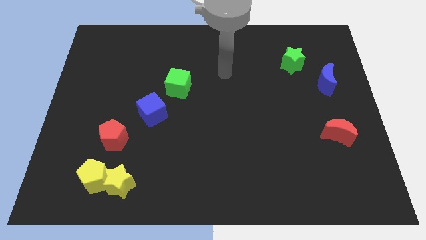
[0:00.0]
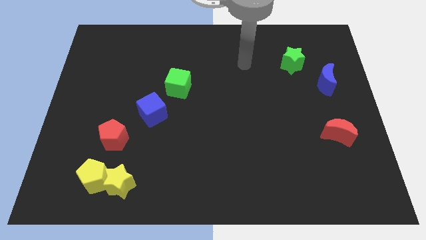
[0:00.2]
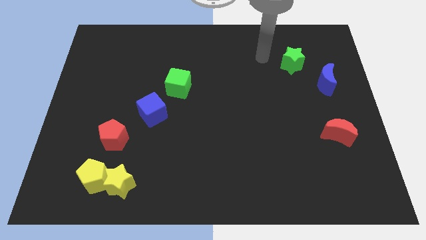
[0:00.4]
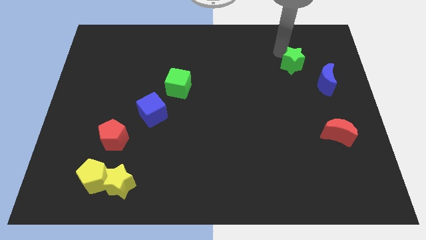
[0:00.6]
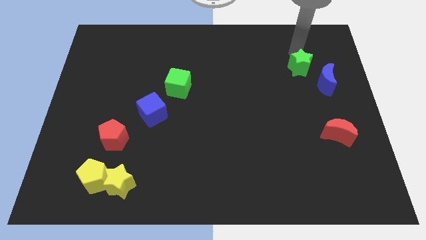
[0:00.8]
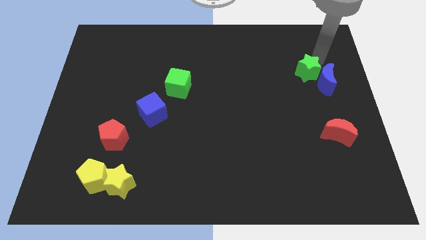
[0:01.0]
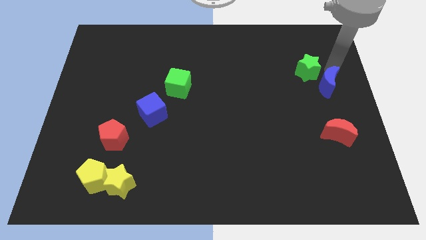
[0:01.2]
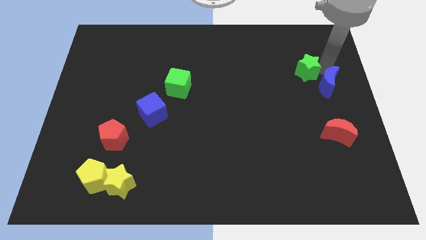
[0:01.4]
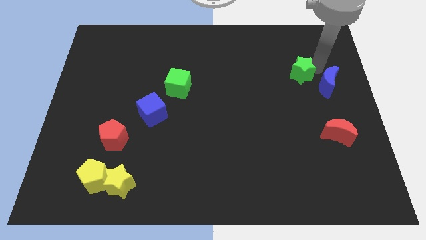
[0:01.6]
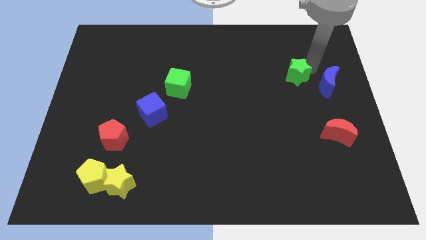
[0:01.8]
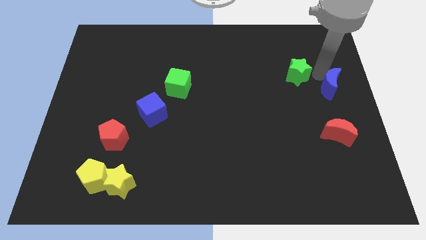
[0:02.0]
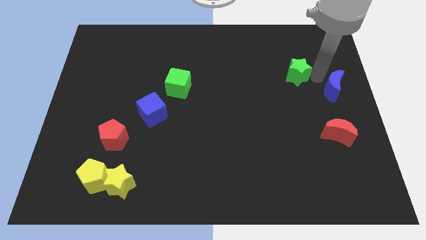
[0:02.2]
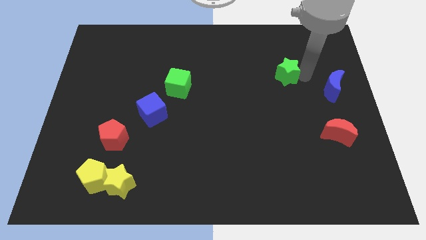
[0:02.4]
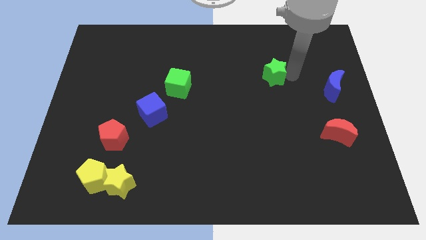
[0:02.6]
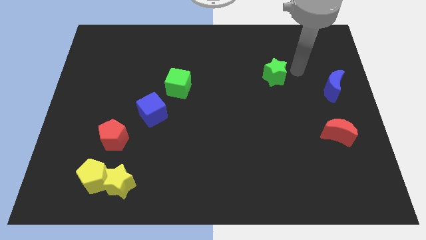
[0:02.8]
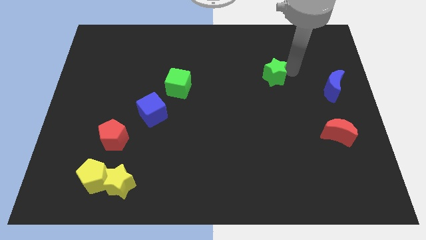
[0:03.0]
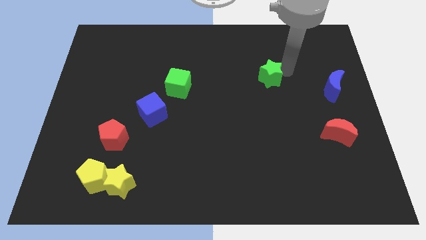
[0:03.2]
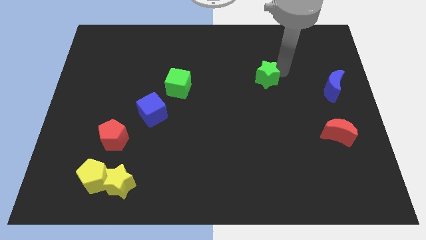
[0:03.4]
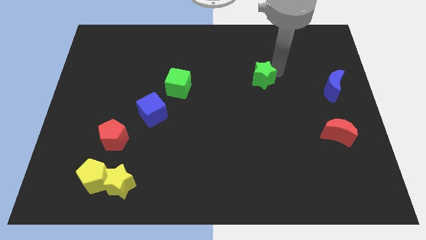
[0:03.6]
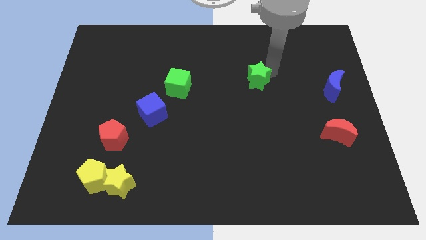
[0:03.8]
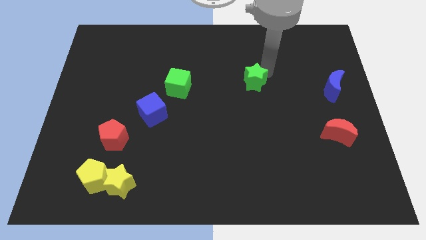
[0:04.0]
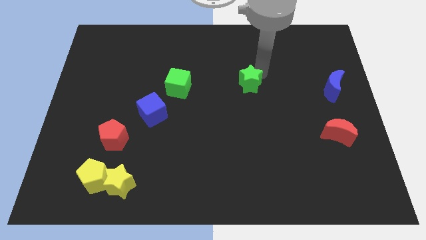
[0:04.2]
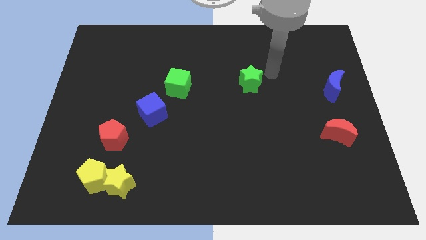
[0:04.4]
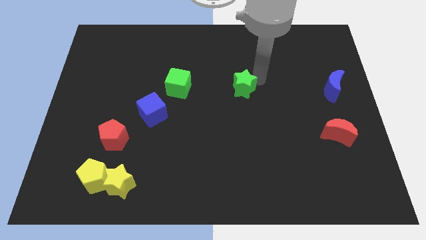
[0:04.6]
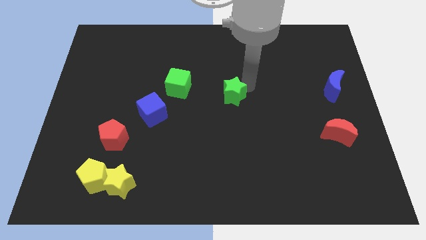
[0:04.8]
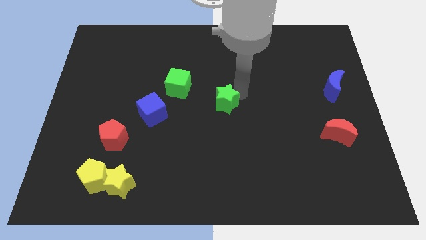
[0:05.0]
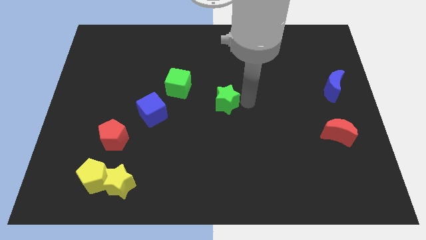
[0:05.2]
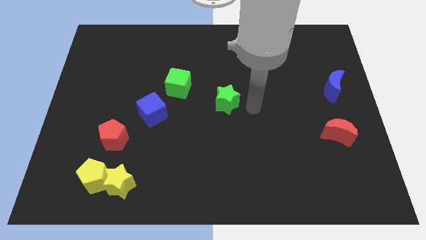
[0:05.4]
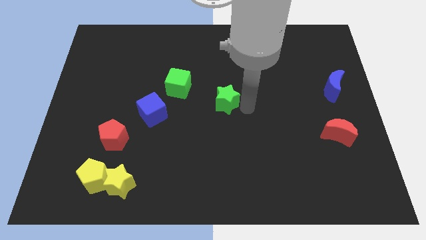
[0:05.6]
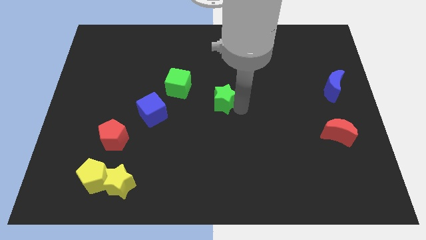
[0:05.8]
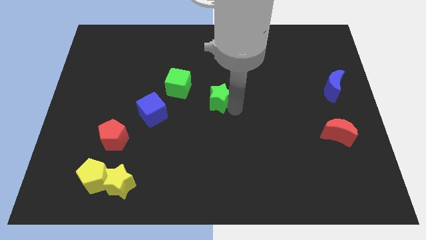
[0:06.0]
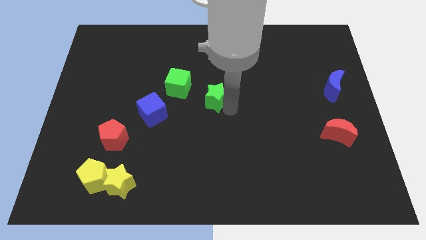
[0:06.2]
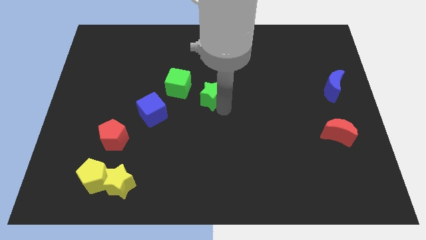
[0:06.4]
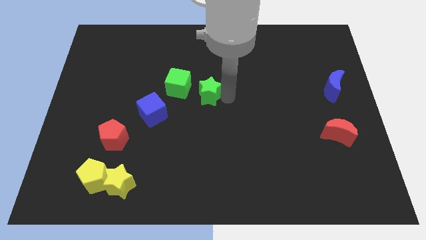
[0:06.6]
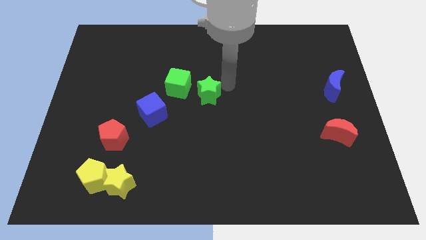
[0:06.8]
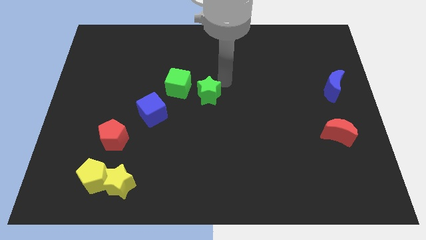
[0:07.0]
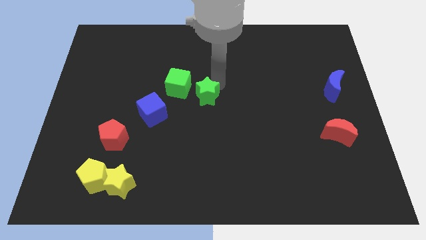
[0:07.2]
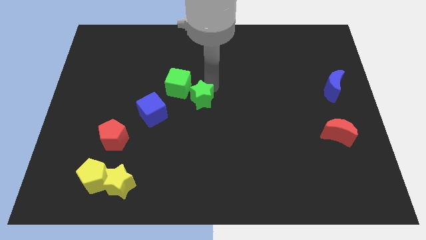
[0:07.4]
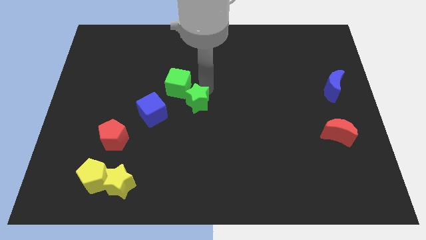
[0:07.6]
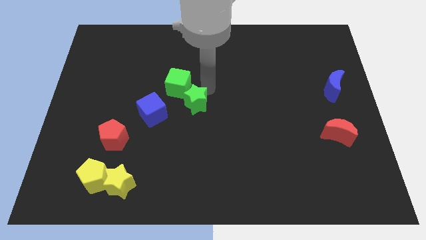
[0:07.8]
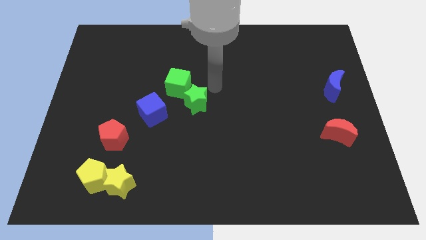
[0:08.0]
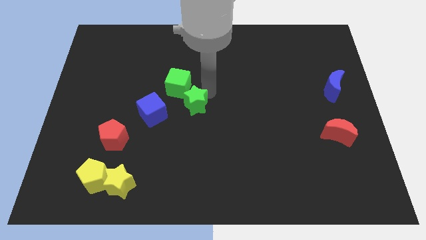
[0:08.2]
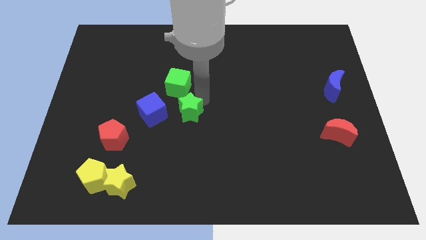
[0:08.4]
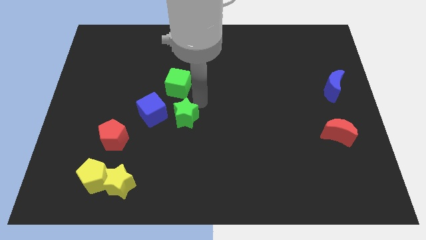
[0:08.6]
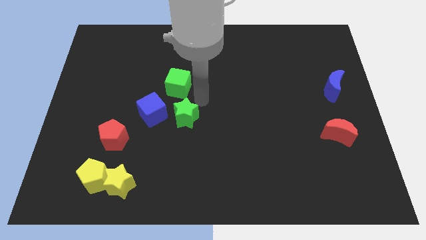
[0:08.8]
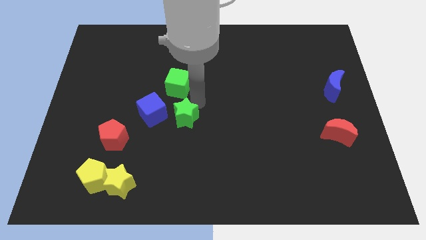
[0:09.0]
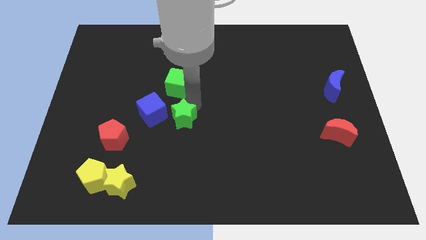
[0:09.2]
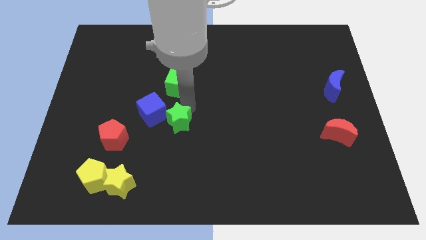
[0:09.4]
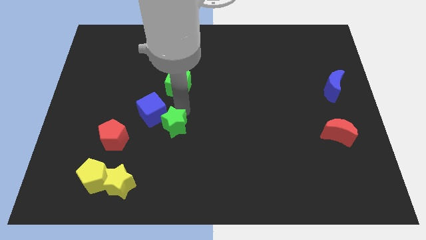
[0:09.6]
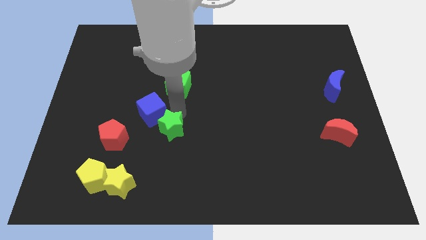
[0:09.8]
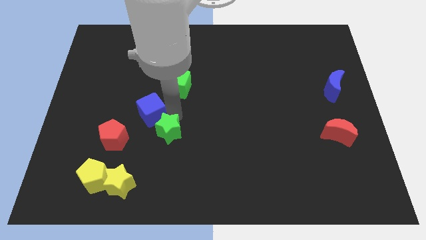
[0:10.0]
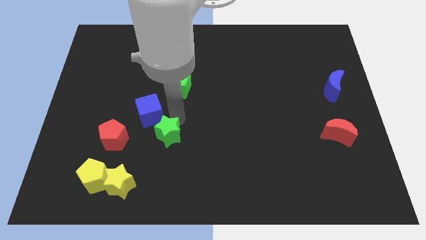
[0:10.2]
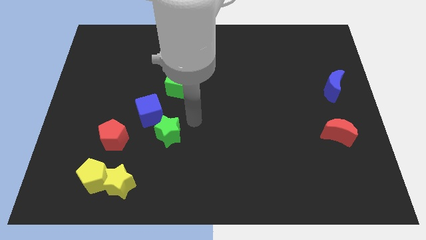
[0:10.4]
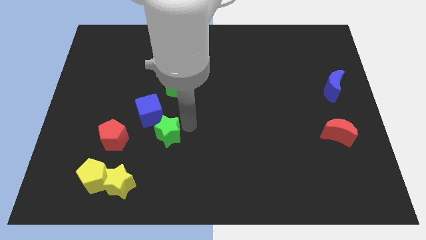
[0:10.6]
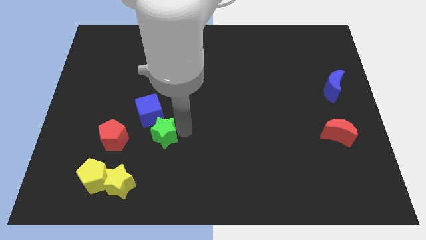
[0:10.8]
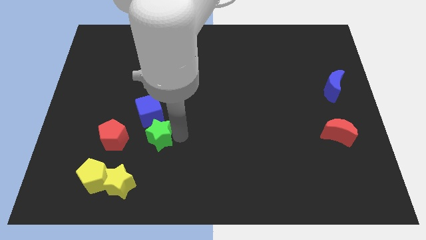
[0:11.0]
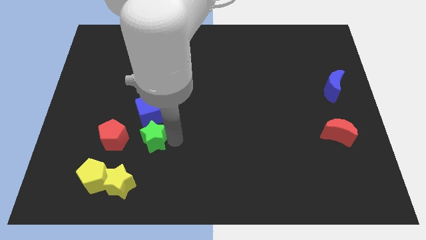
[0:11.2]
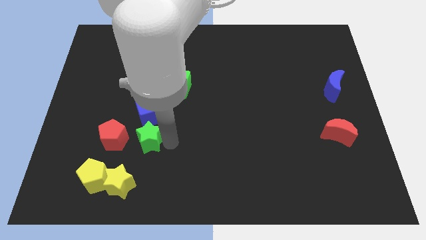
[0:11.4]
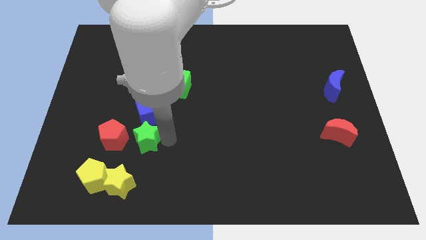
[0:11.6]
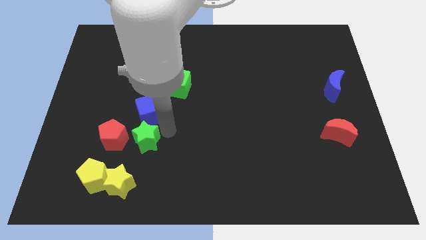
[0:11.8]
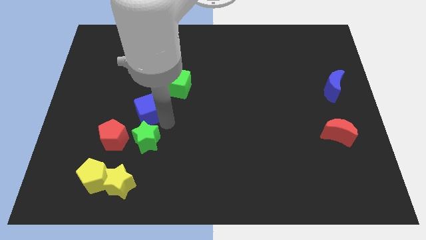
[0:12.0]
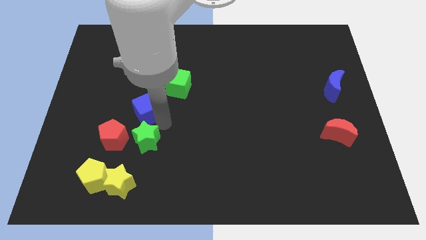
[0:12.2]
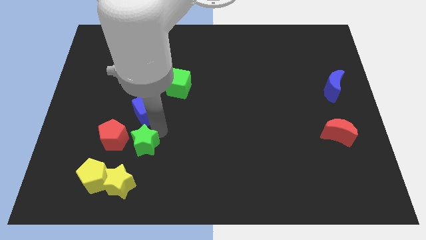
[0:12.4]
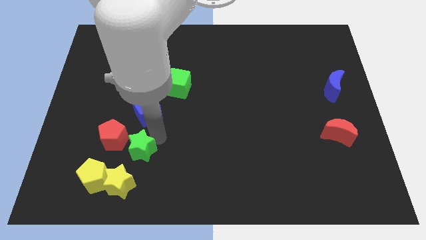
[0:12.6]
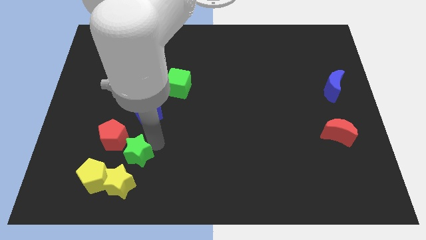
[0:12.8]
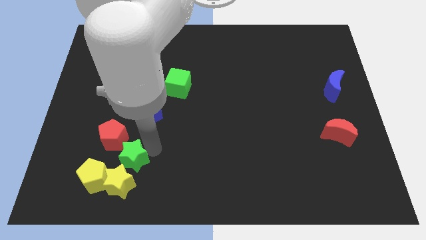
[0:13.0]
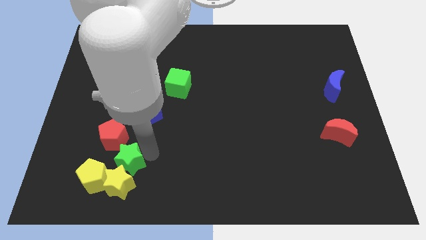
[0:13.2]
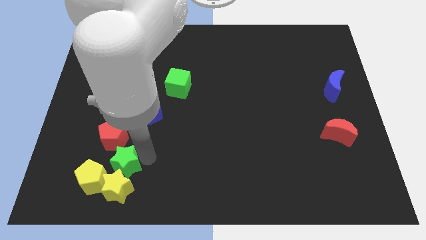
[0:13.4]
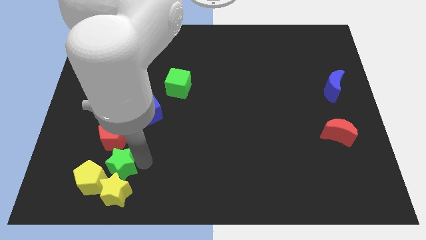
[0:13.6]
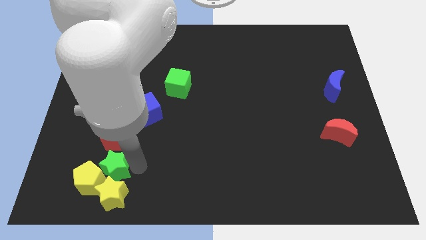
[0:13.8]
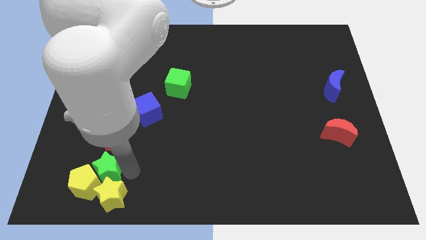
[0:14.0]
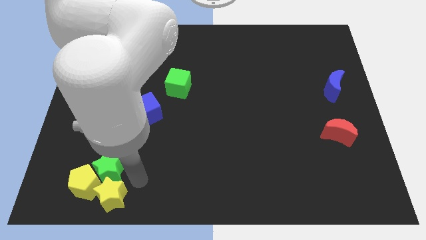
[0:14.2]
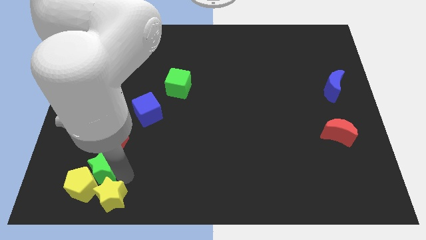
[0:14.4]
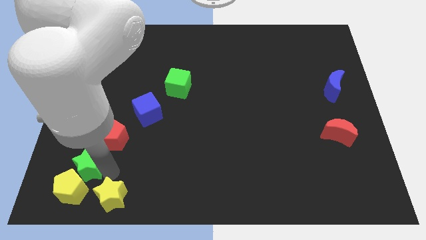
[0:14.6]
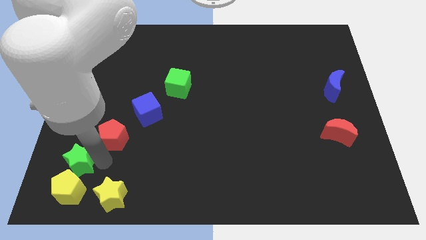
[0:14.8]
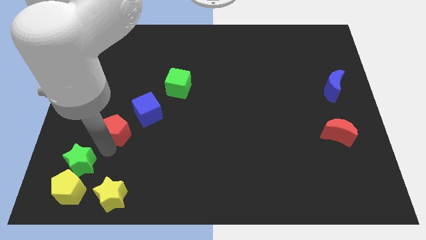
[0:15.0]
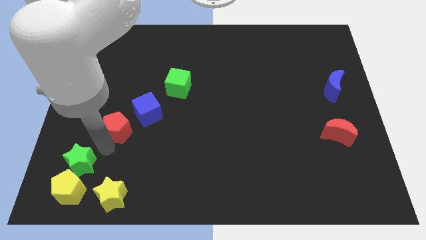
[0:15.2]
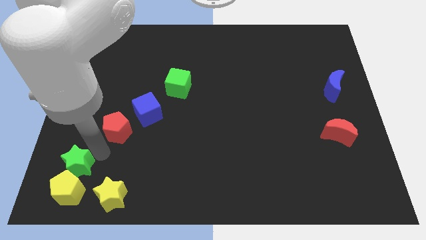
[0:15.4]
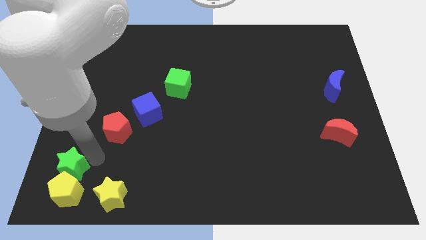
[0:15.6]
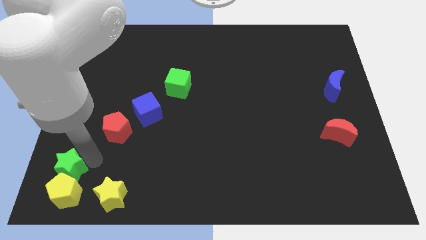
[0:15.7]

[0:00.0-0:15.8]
move the green star to the lower left corner
